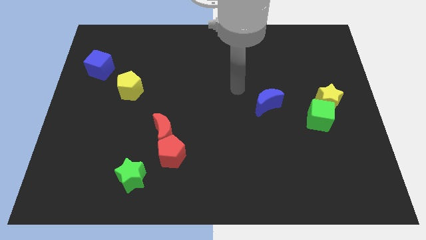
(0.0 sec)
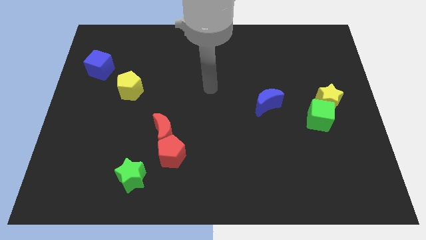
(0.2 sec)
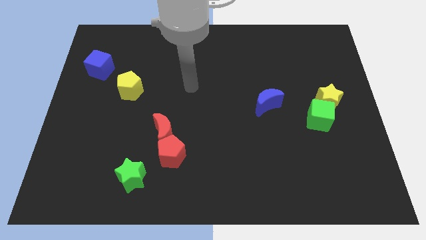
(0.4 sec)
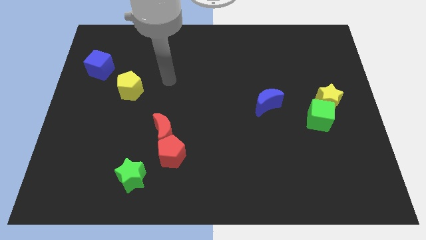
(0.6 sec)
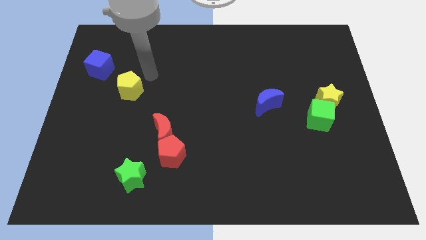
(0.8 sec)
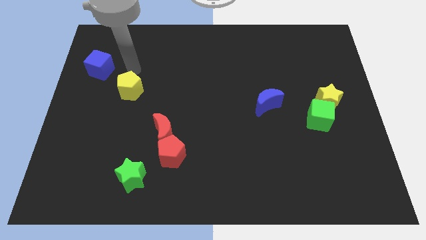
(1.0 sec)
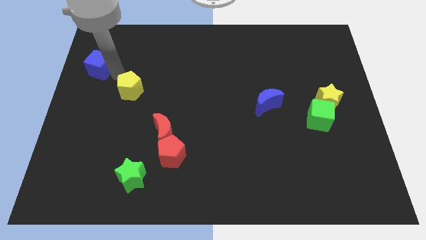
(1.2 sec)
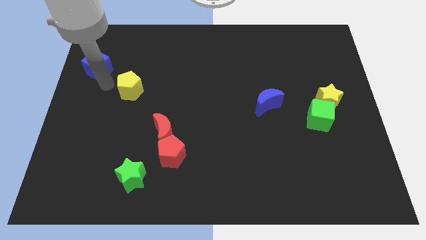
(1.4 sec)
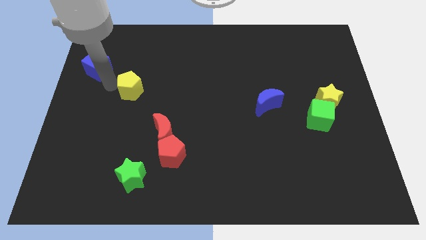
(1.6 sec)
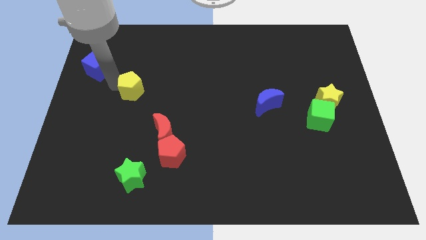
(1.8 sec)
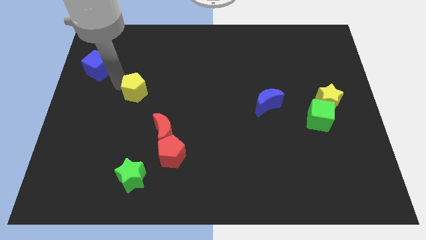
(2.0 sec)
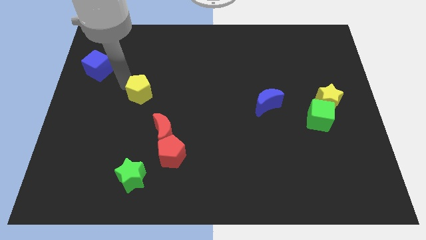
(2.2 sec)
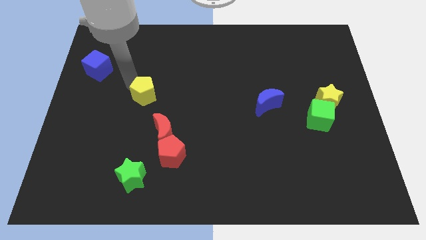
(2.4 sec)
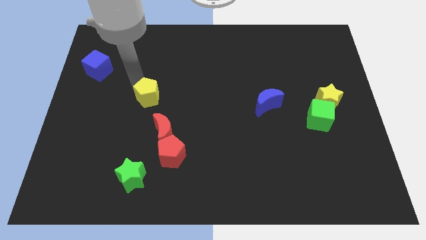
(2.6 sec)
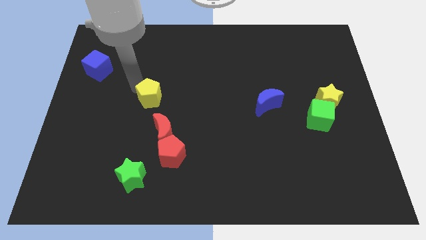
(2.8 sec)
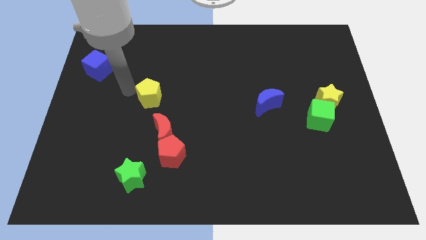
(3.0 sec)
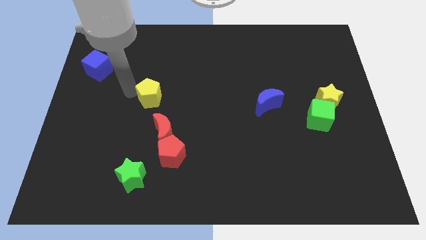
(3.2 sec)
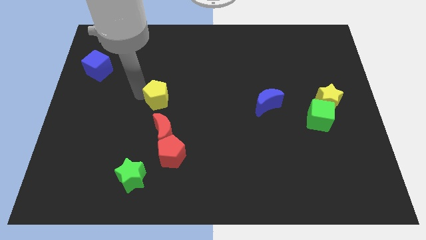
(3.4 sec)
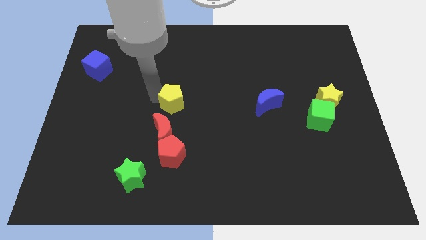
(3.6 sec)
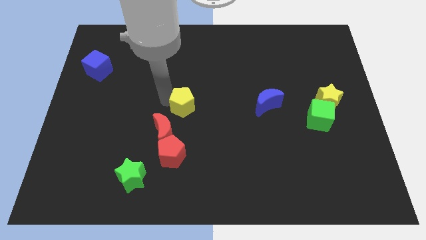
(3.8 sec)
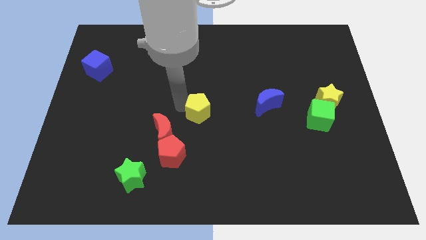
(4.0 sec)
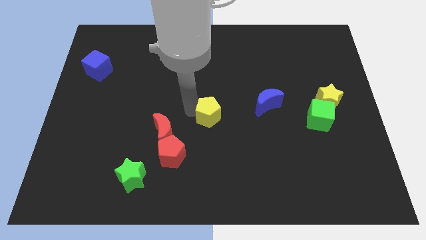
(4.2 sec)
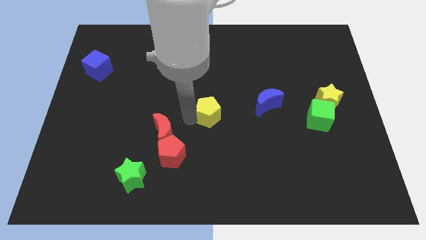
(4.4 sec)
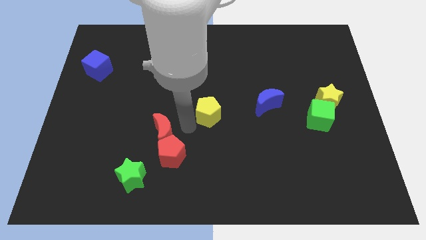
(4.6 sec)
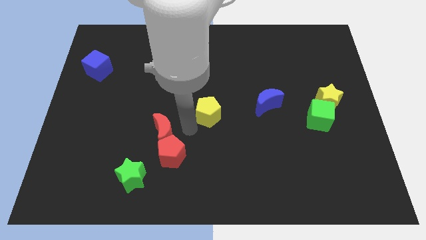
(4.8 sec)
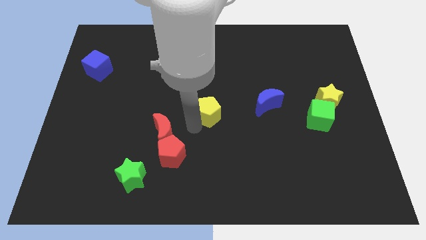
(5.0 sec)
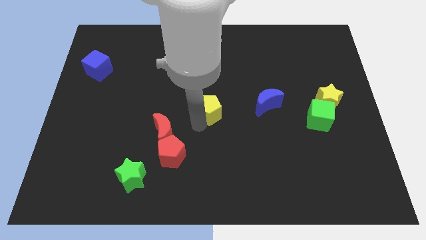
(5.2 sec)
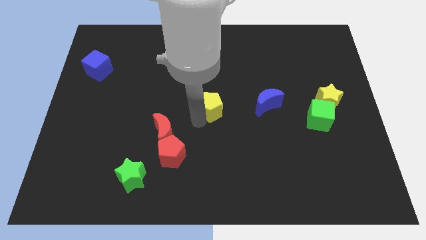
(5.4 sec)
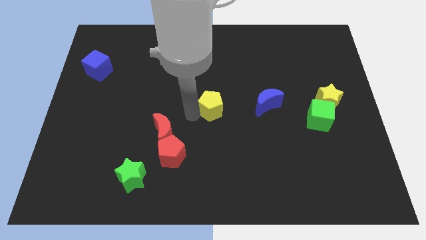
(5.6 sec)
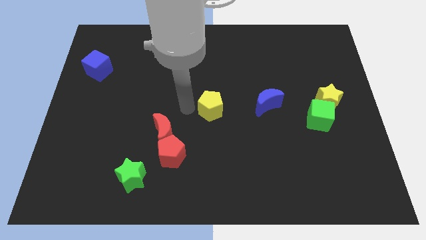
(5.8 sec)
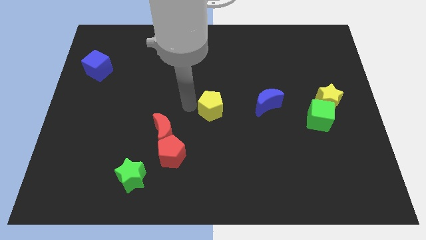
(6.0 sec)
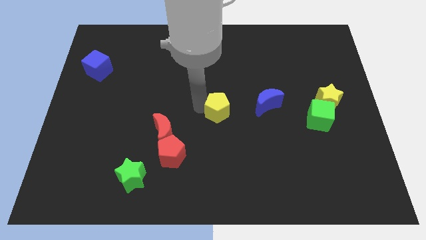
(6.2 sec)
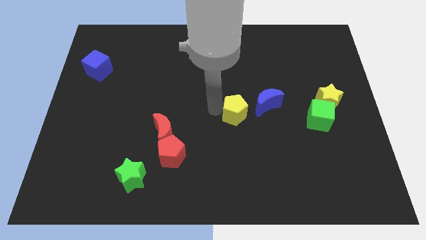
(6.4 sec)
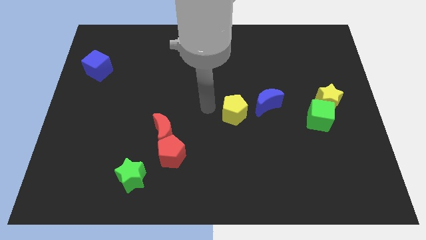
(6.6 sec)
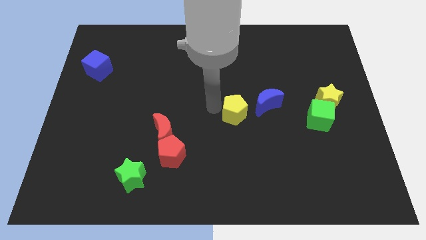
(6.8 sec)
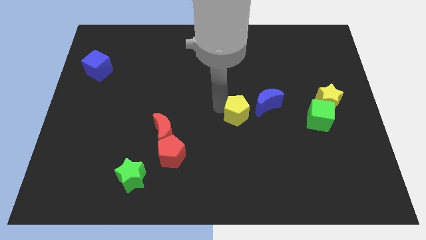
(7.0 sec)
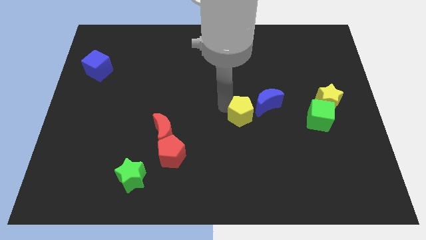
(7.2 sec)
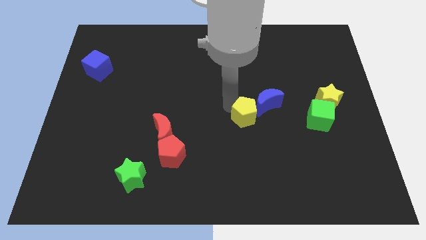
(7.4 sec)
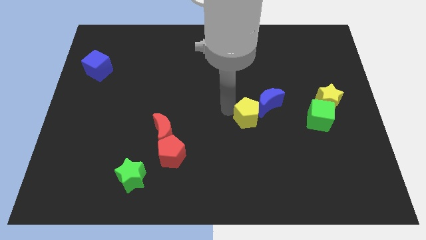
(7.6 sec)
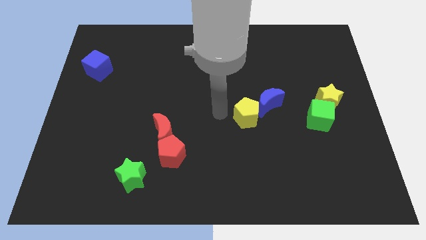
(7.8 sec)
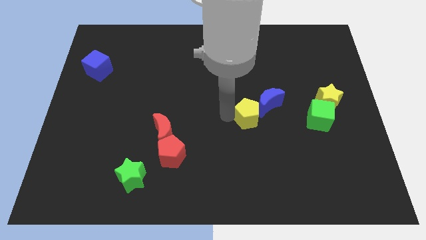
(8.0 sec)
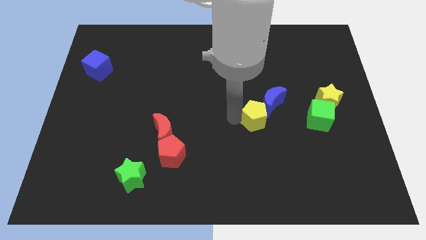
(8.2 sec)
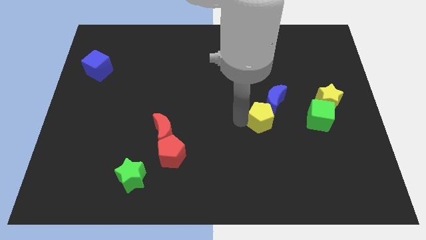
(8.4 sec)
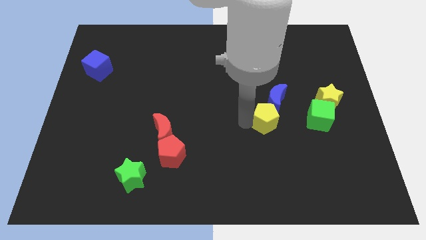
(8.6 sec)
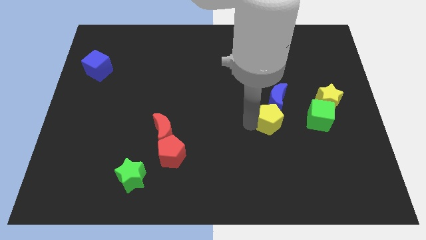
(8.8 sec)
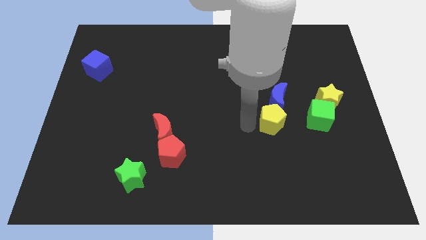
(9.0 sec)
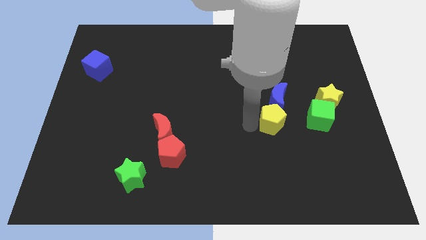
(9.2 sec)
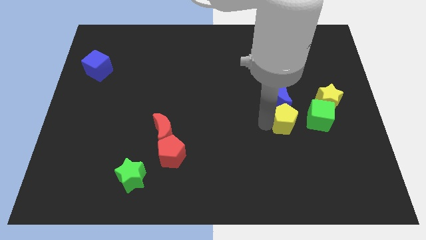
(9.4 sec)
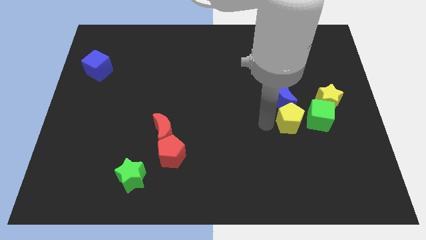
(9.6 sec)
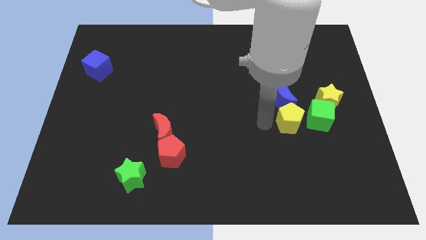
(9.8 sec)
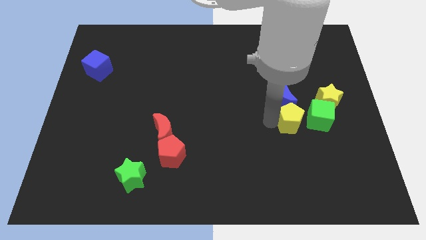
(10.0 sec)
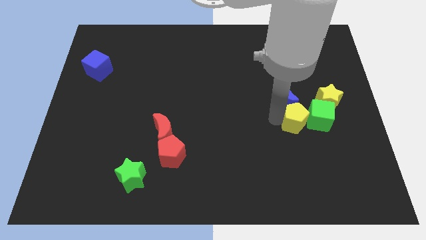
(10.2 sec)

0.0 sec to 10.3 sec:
slide the yellow pentagon next to the green cube

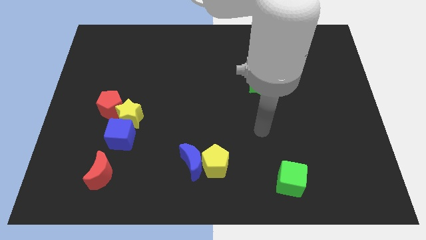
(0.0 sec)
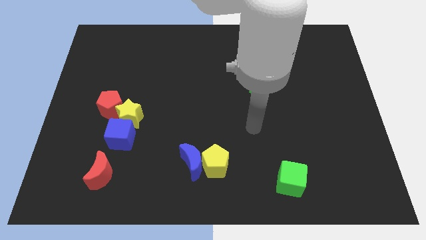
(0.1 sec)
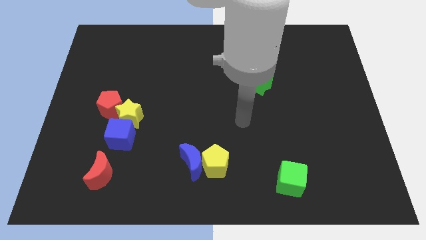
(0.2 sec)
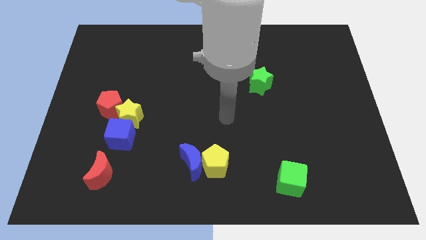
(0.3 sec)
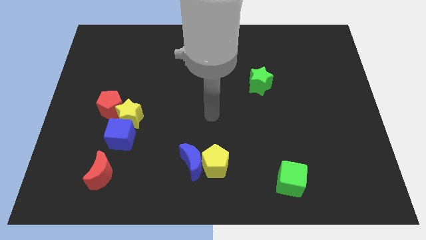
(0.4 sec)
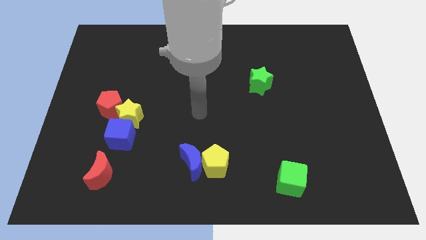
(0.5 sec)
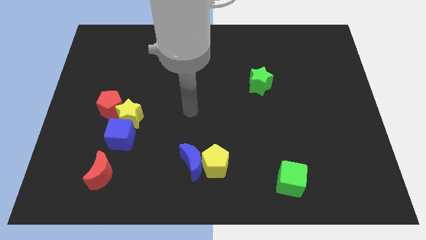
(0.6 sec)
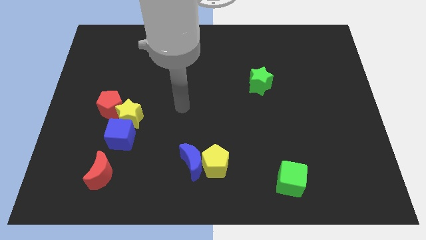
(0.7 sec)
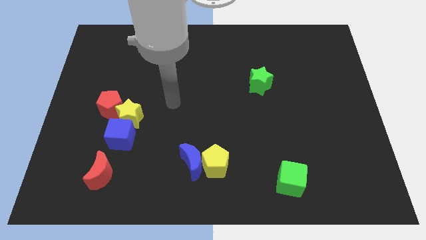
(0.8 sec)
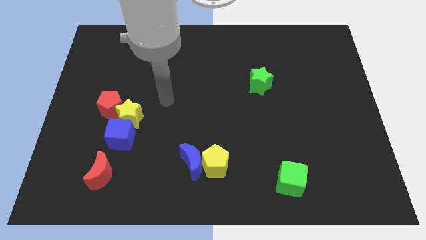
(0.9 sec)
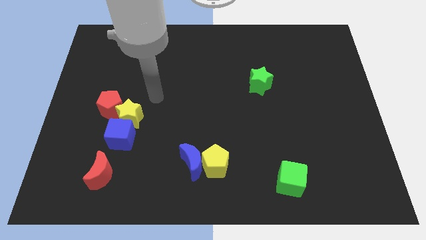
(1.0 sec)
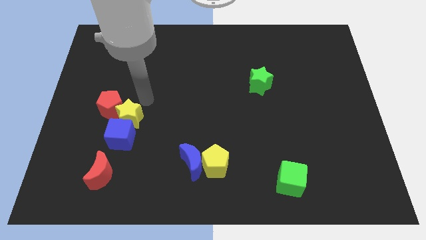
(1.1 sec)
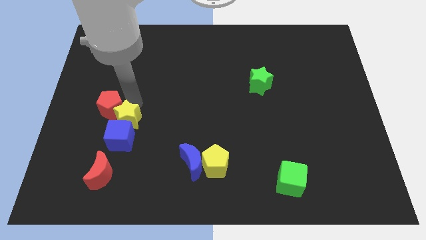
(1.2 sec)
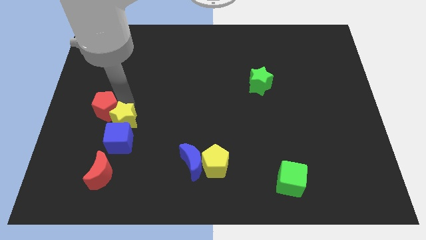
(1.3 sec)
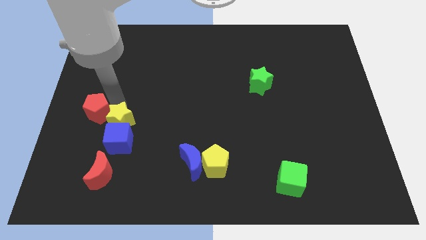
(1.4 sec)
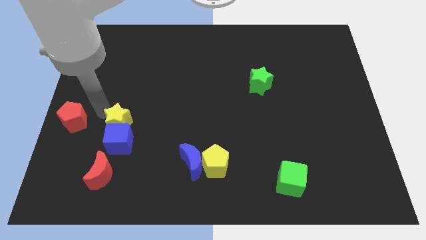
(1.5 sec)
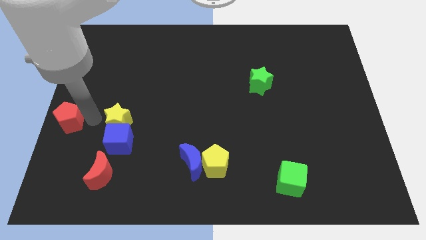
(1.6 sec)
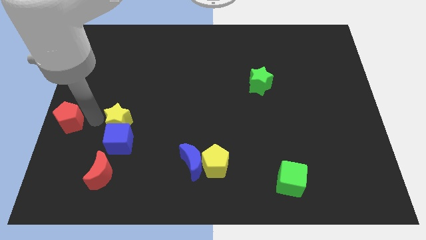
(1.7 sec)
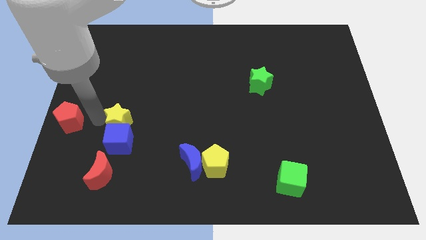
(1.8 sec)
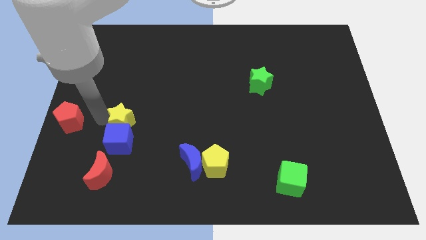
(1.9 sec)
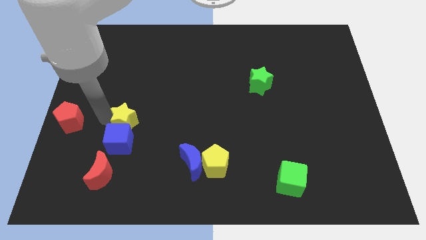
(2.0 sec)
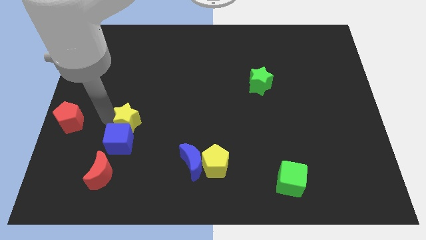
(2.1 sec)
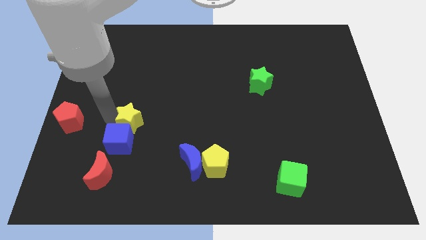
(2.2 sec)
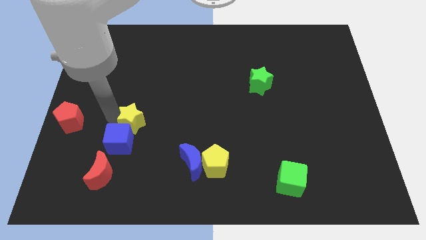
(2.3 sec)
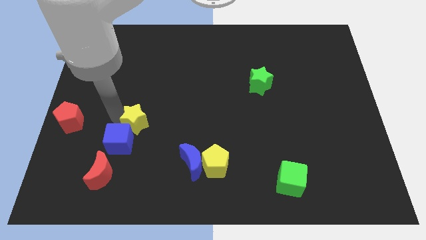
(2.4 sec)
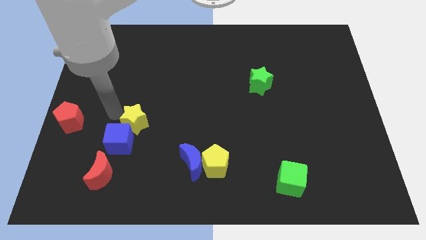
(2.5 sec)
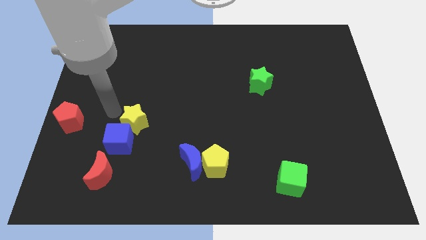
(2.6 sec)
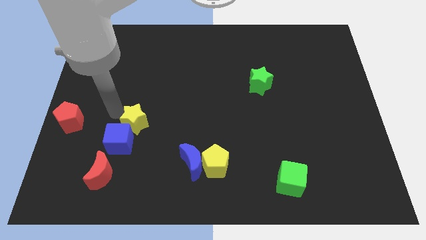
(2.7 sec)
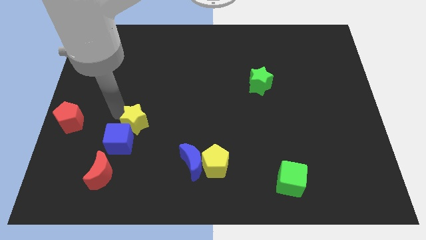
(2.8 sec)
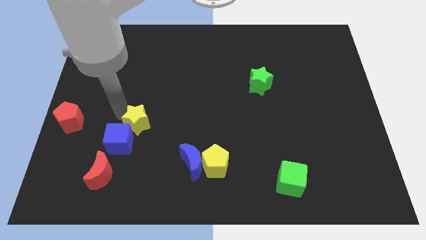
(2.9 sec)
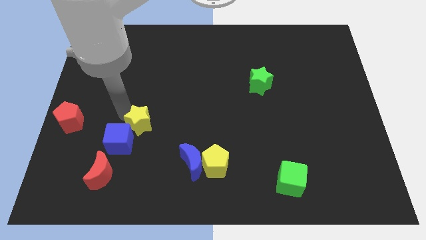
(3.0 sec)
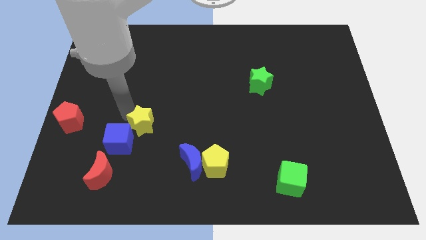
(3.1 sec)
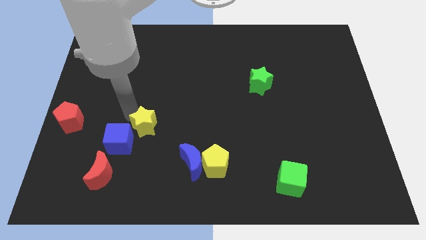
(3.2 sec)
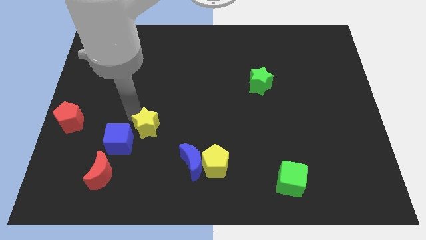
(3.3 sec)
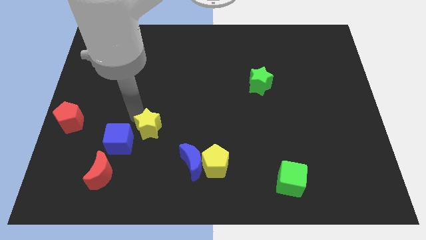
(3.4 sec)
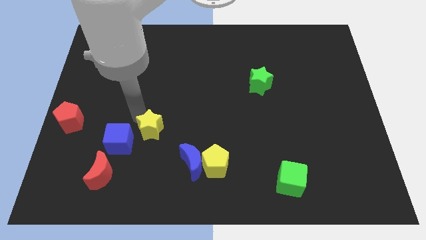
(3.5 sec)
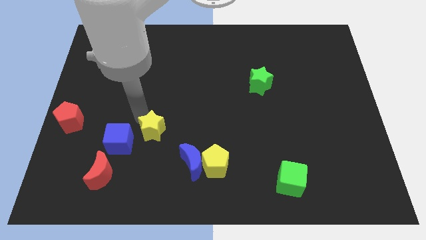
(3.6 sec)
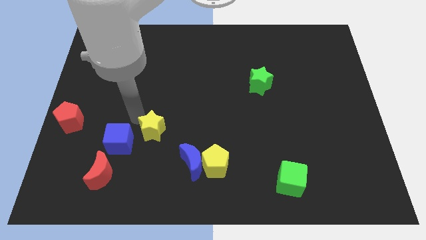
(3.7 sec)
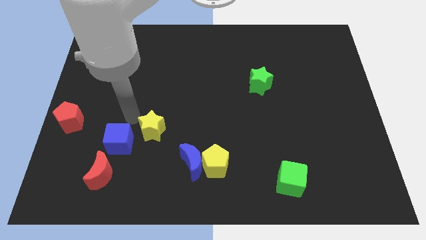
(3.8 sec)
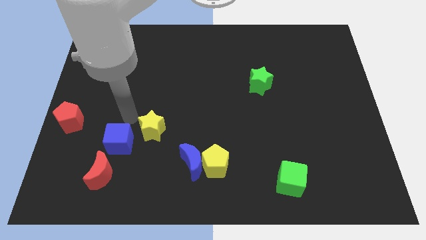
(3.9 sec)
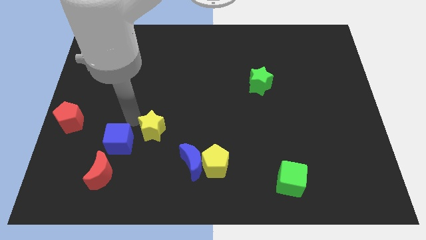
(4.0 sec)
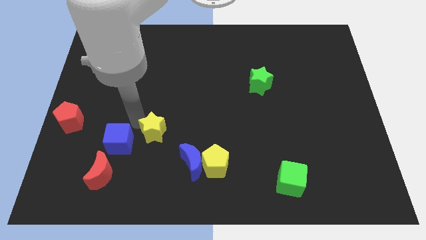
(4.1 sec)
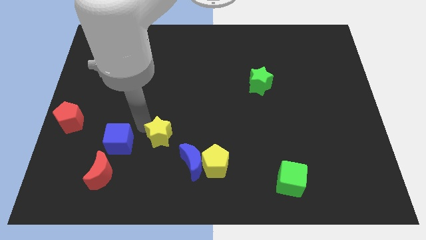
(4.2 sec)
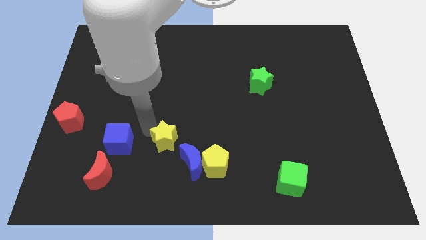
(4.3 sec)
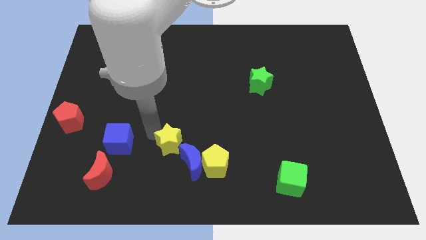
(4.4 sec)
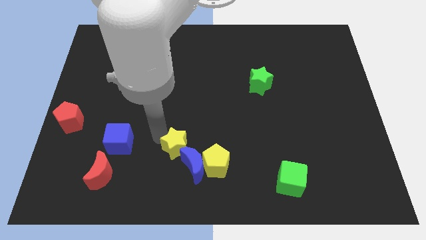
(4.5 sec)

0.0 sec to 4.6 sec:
move the yellow star to the blue moon
